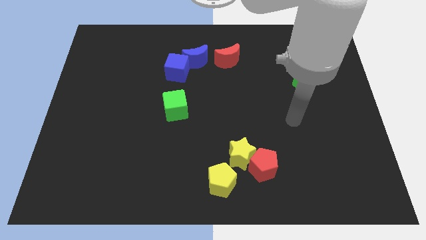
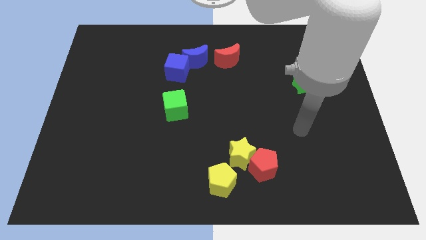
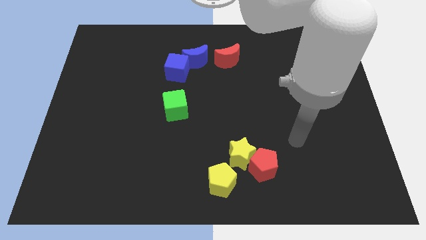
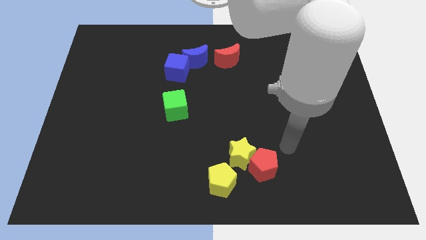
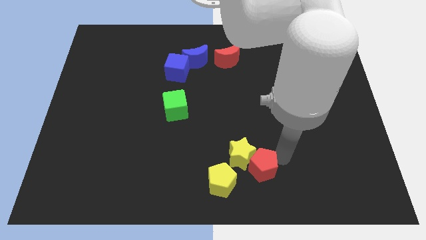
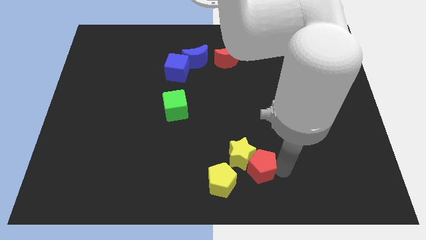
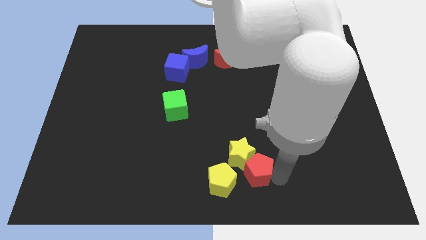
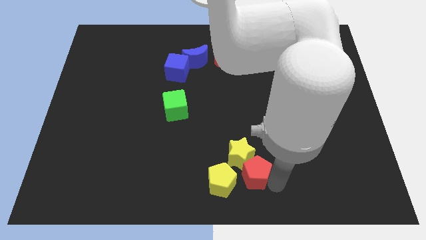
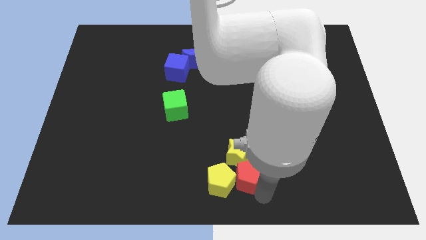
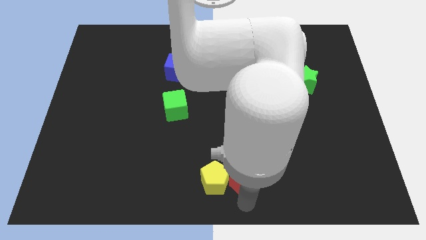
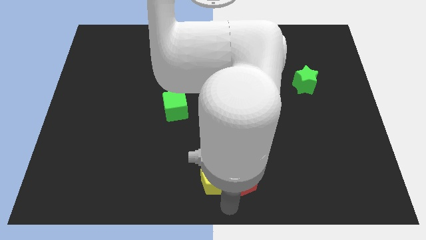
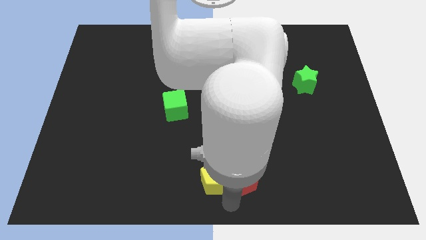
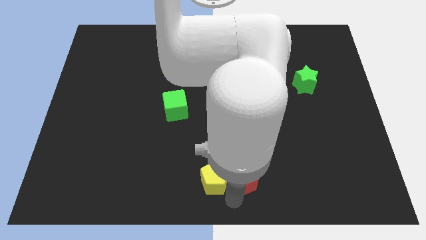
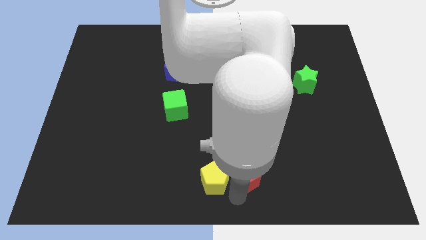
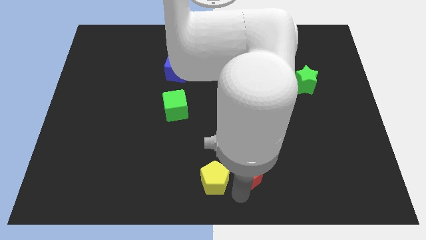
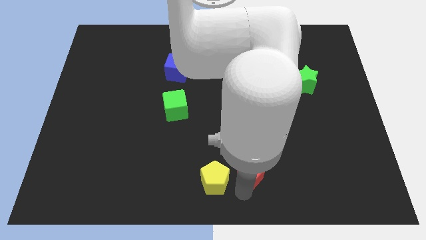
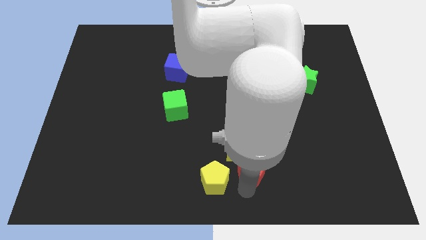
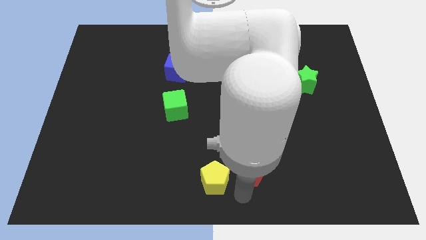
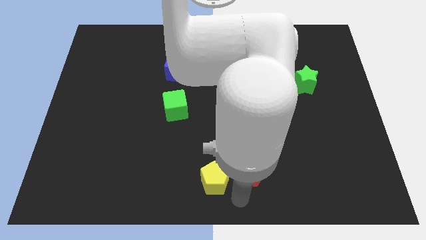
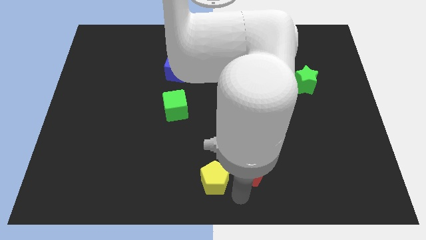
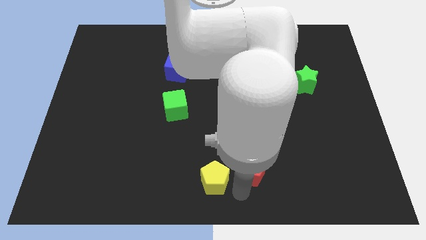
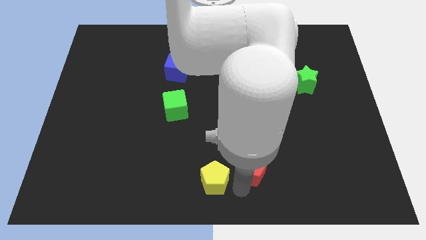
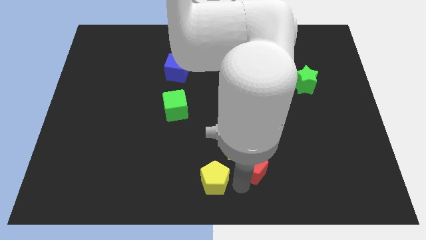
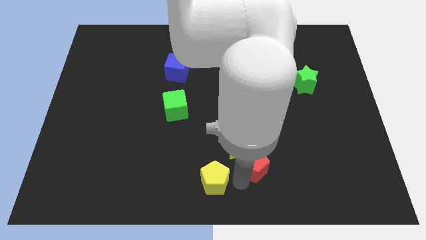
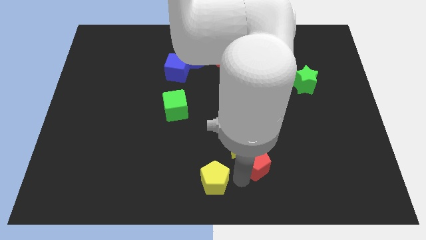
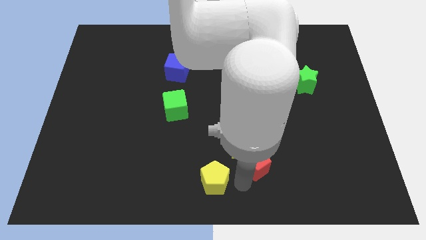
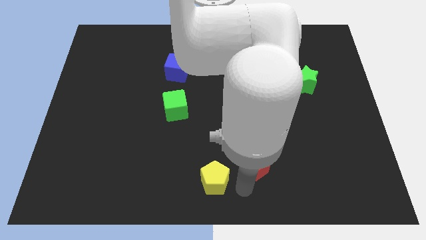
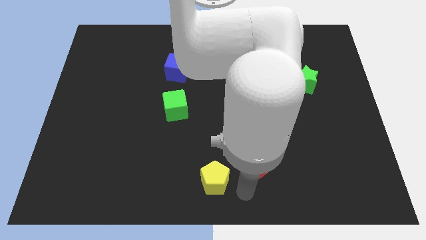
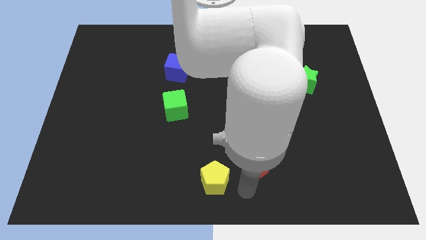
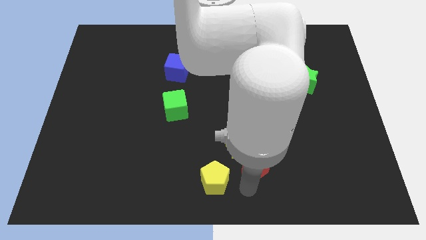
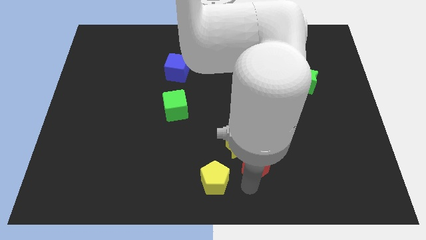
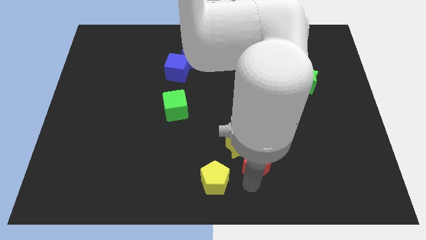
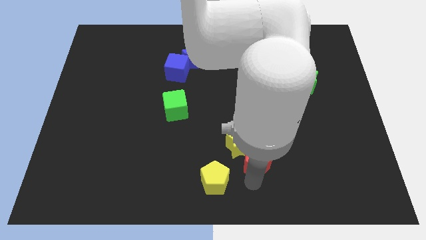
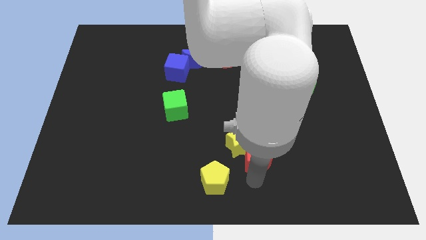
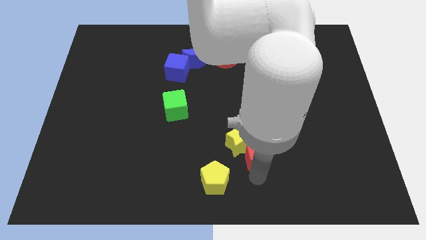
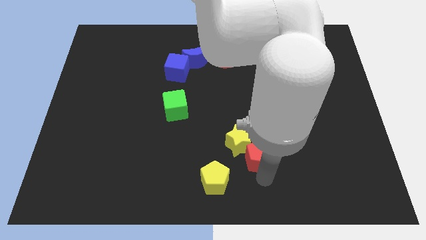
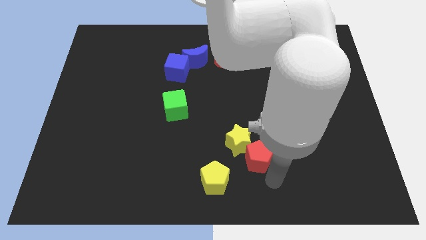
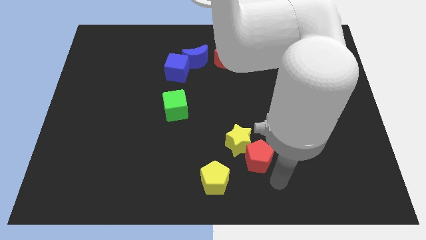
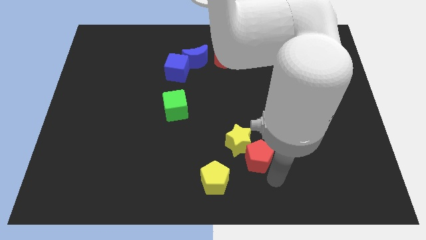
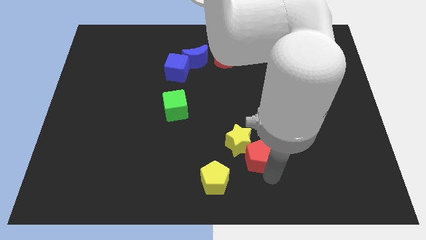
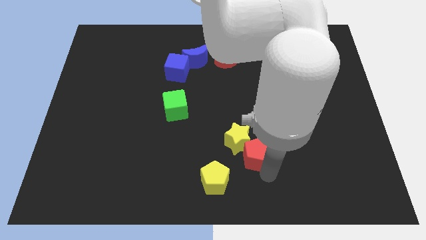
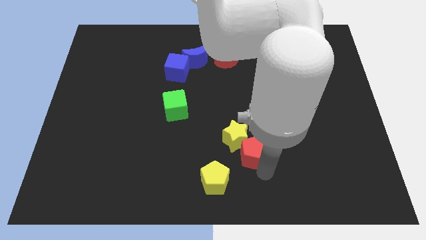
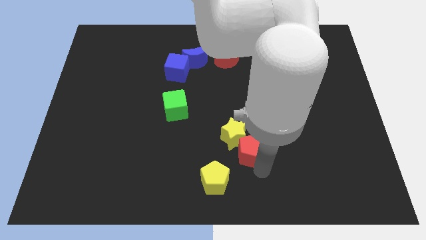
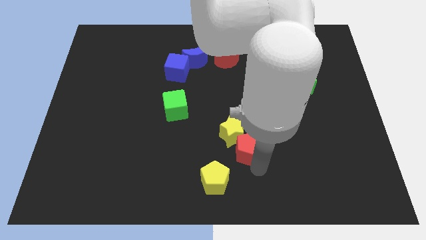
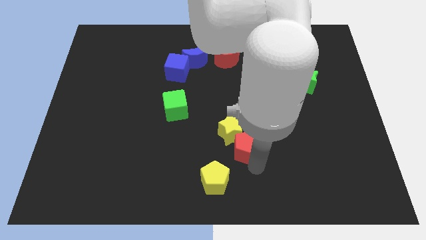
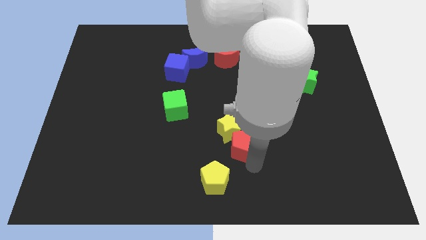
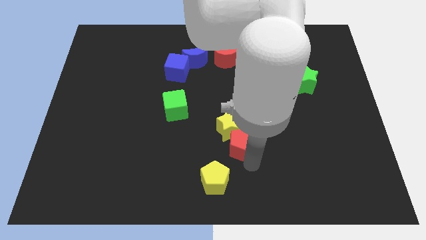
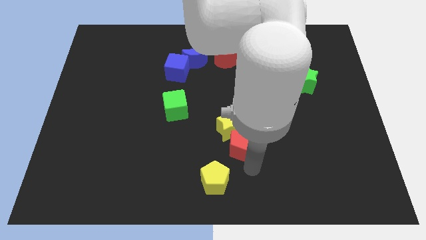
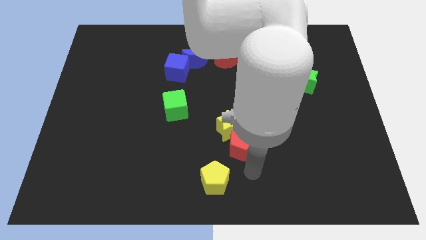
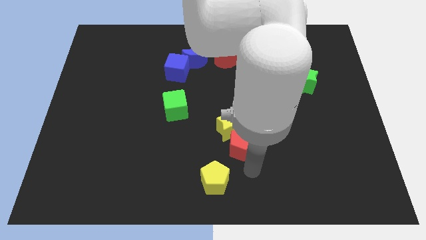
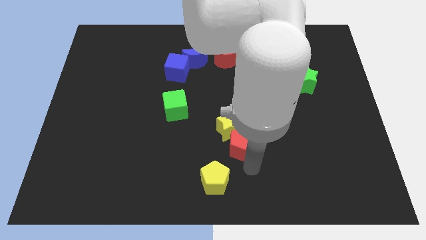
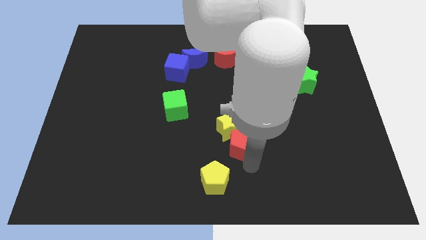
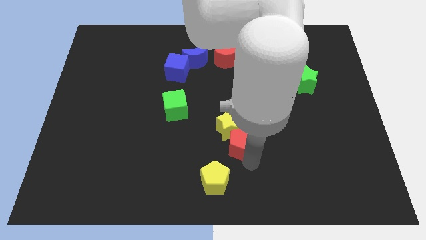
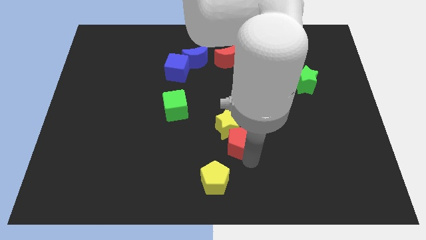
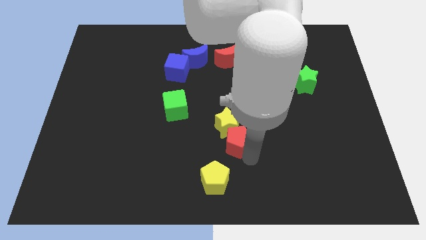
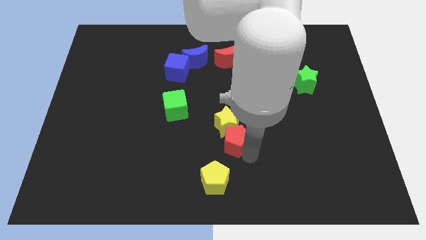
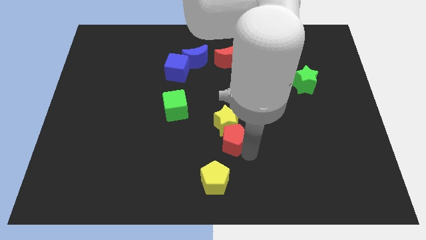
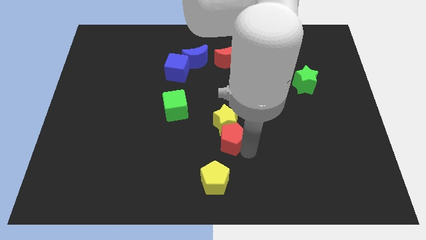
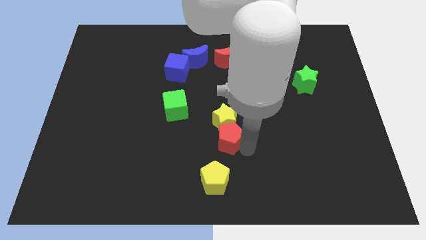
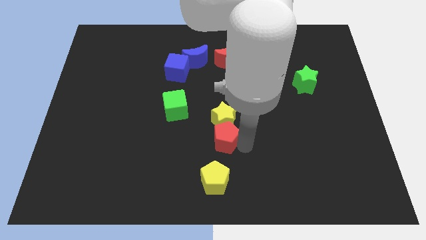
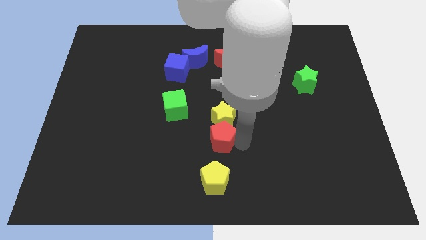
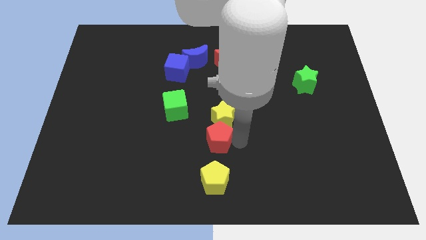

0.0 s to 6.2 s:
slightly push the red pentagon left

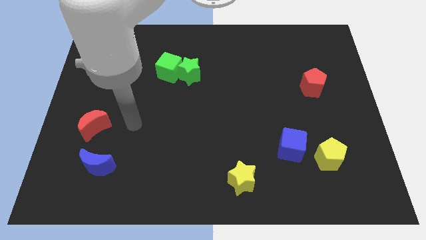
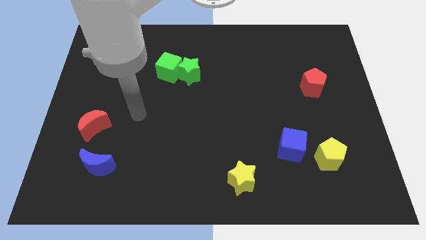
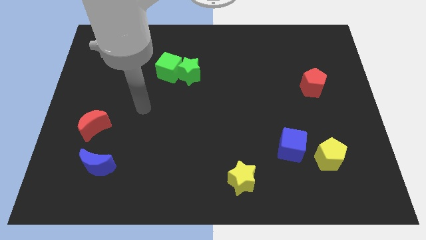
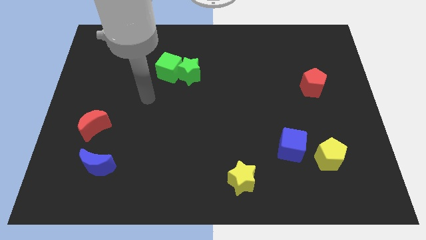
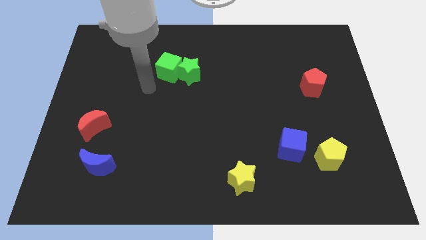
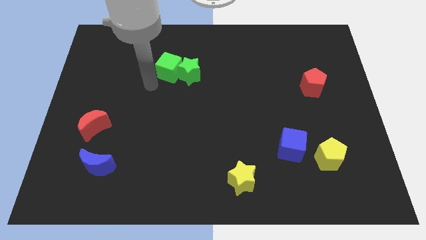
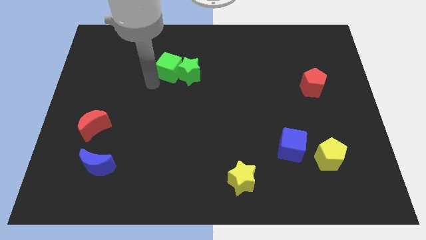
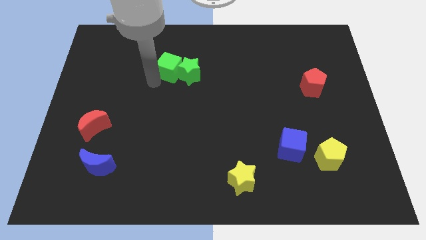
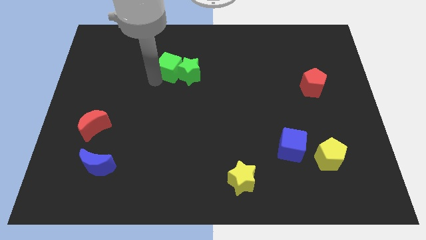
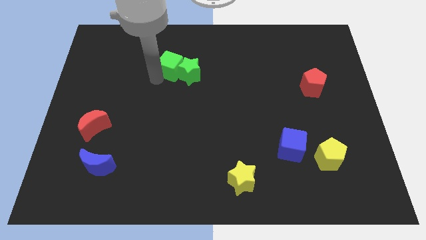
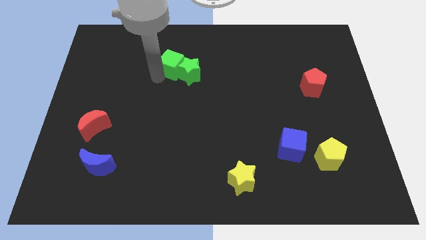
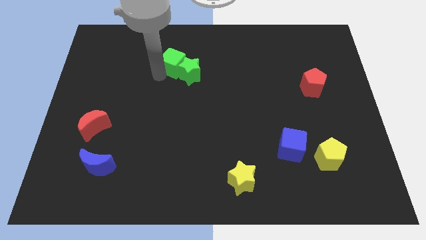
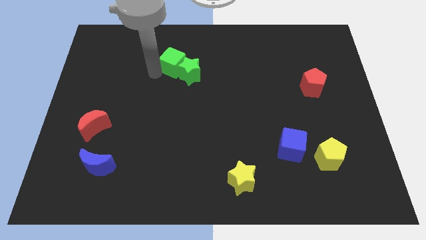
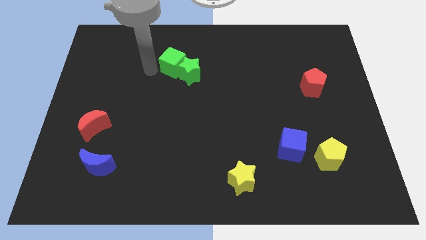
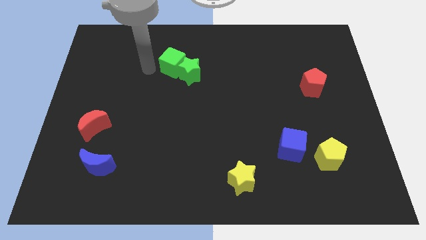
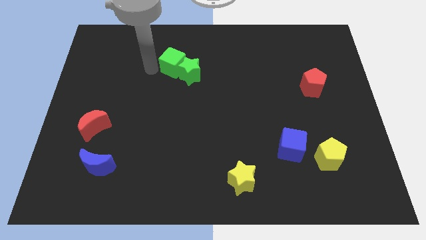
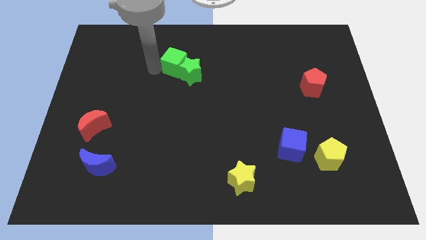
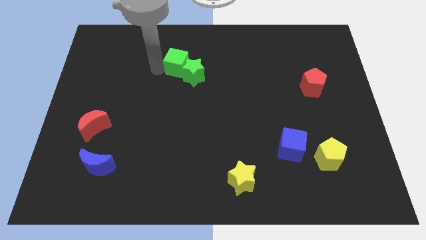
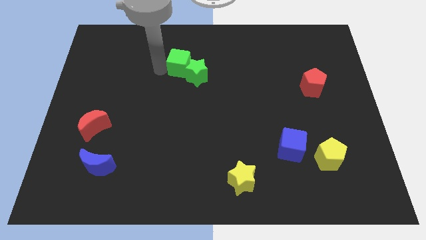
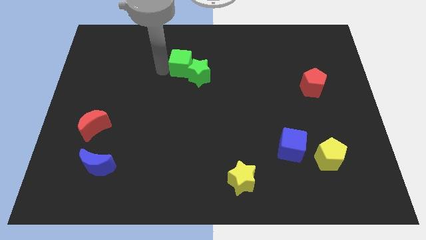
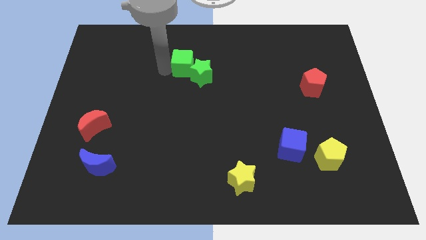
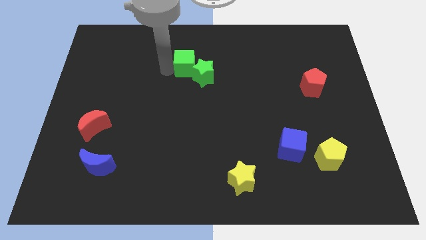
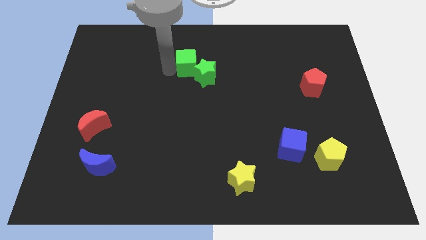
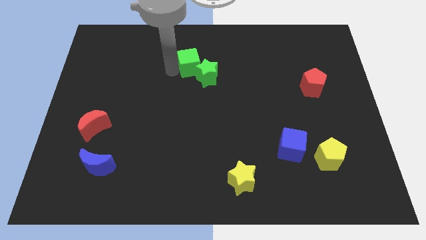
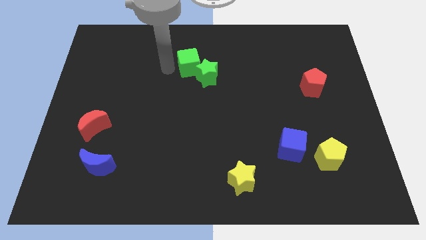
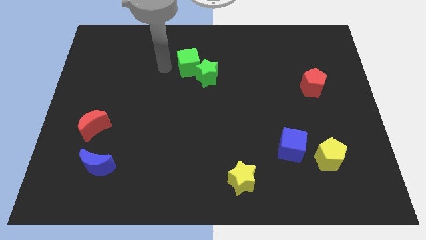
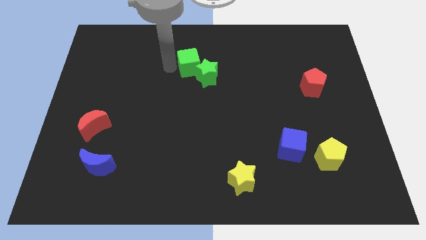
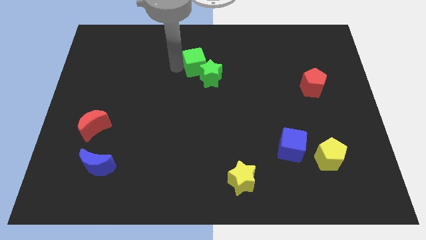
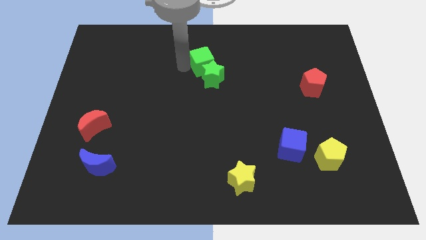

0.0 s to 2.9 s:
move the green cube right slightly
